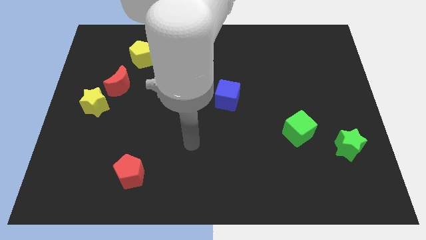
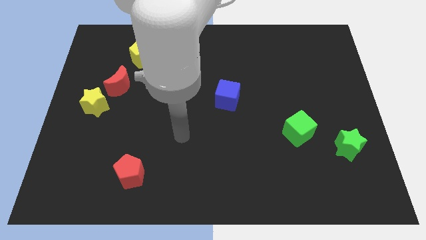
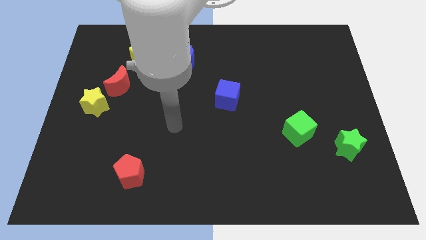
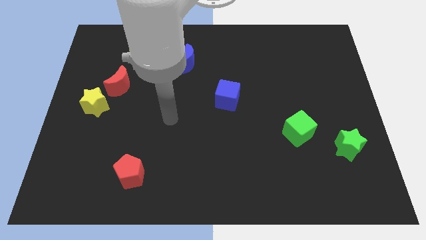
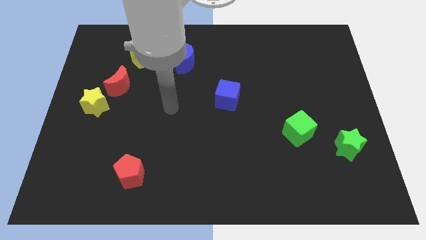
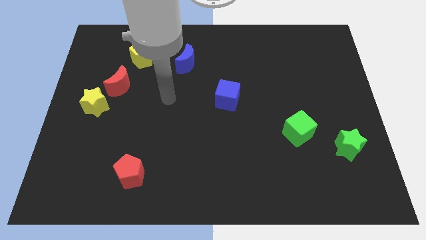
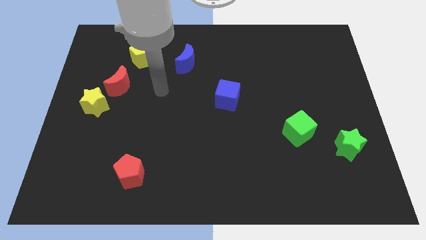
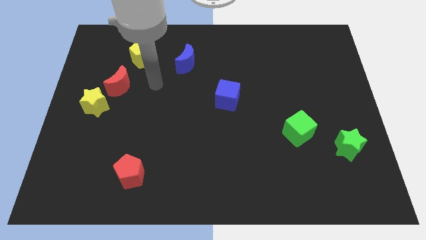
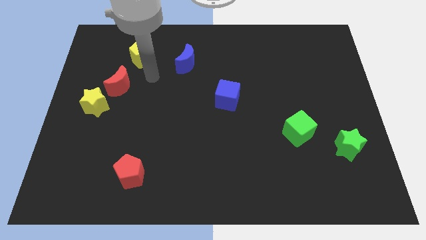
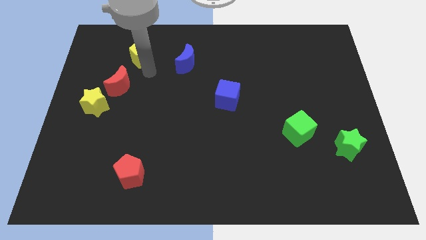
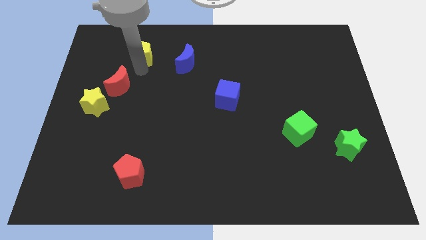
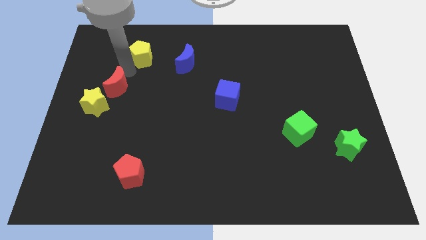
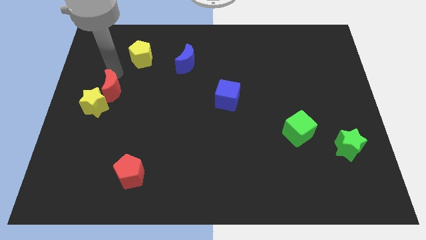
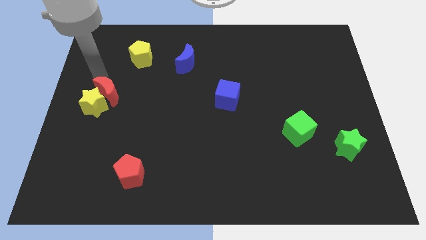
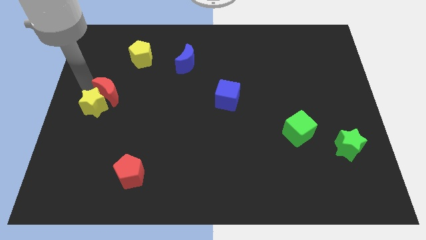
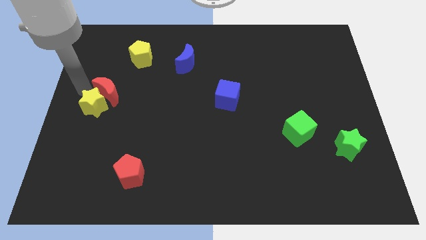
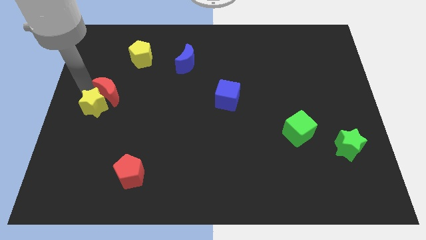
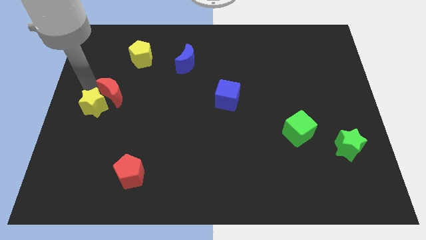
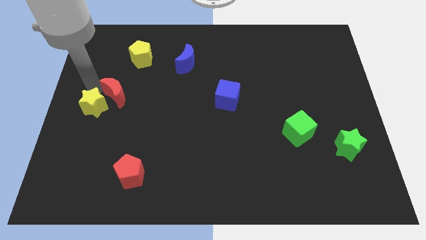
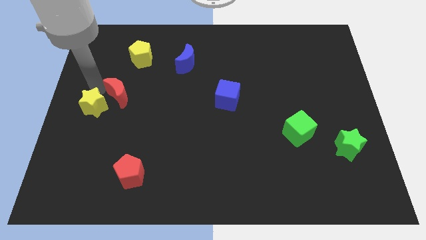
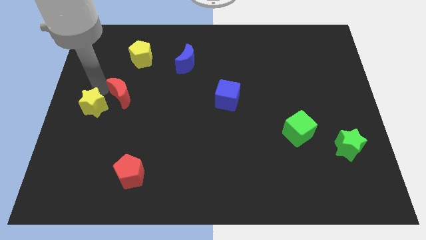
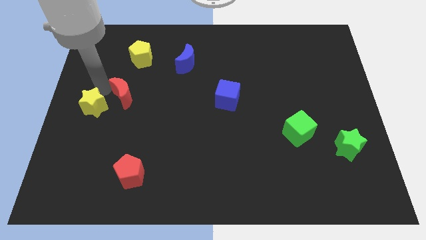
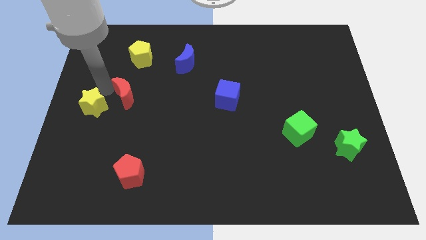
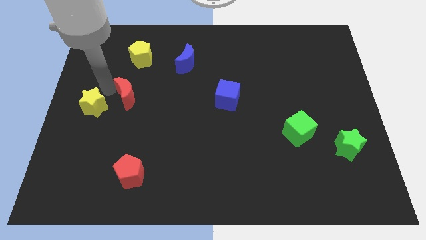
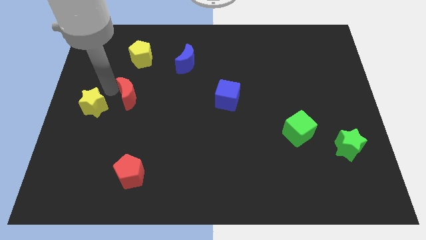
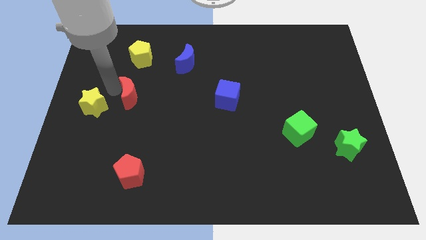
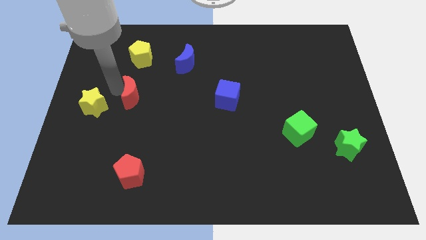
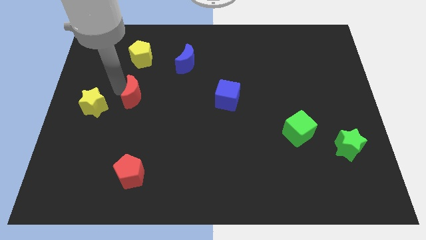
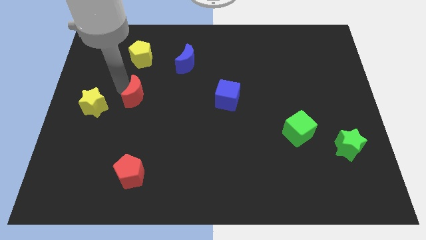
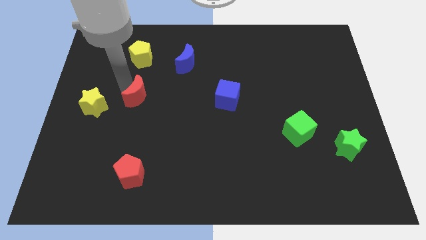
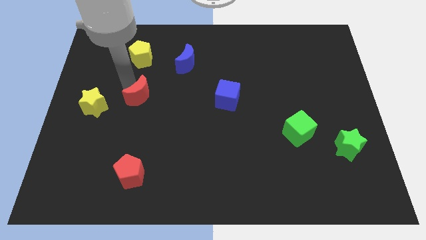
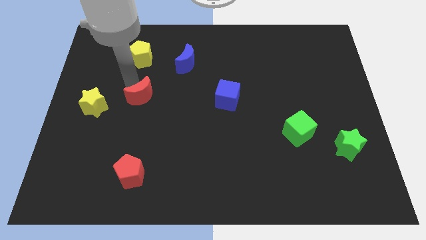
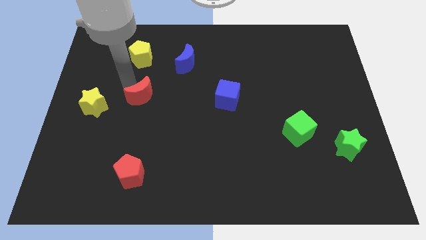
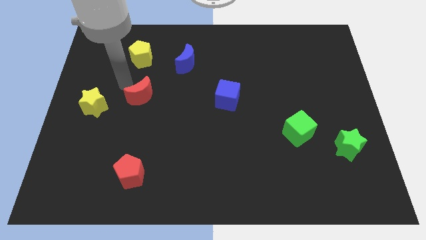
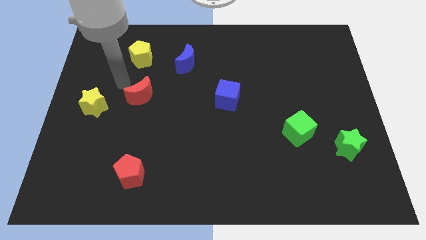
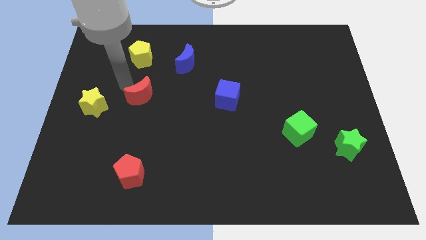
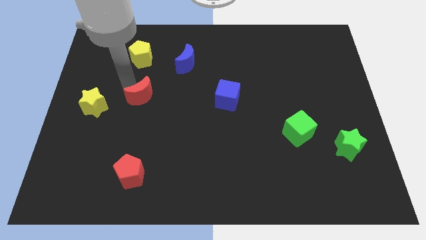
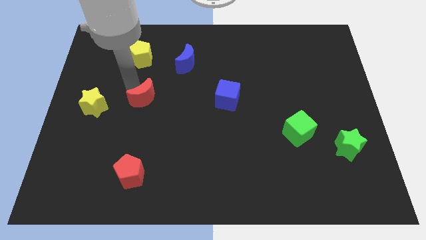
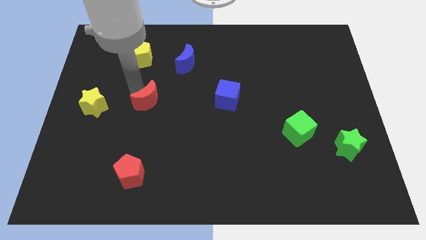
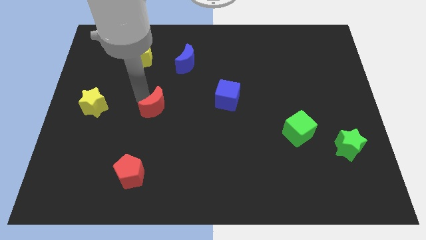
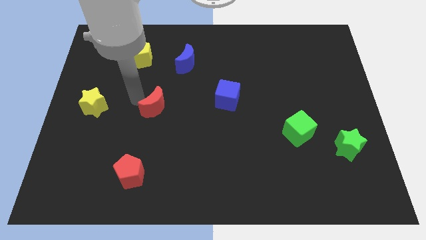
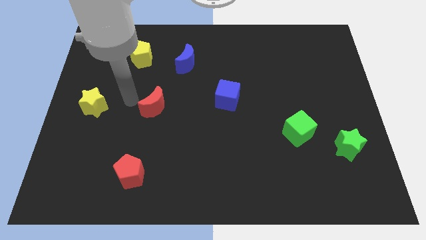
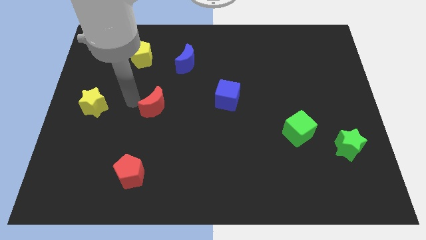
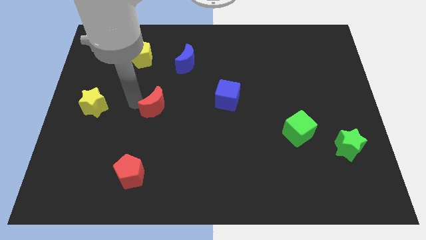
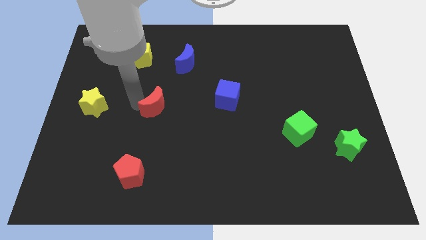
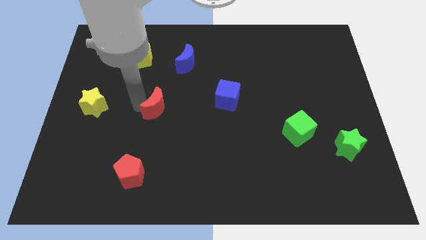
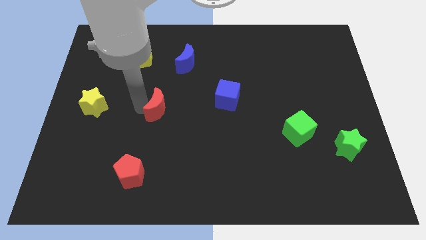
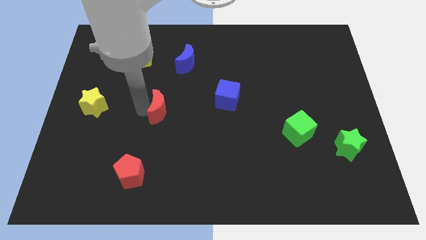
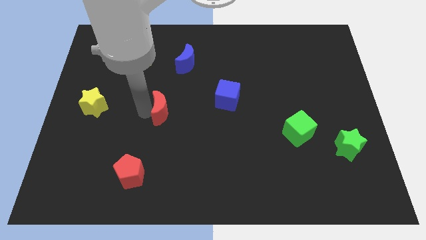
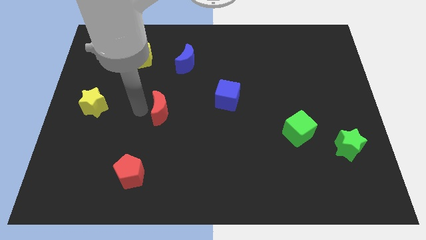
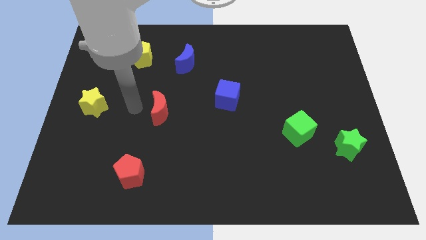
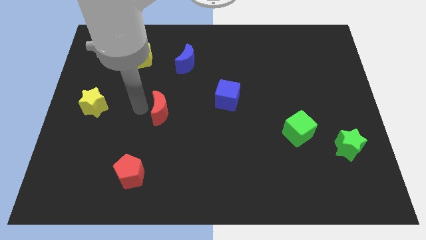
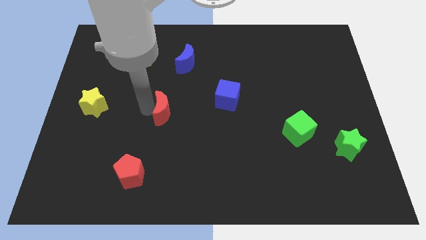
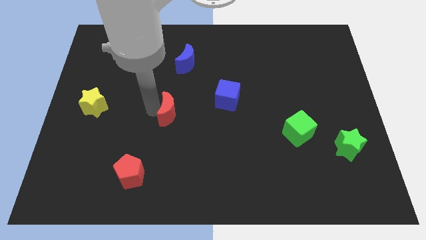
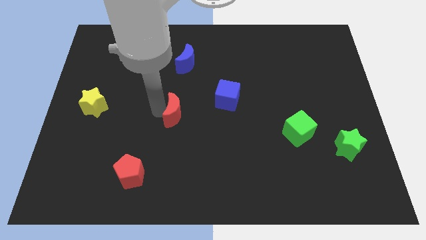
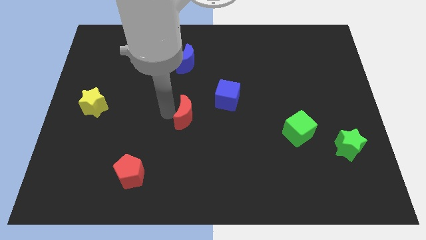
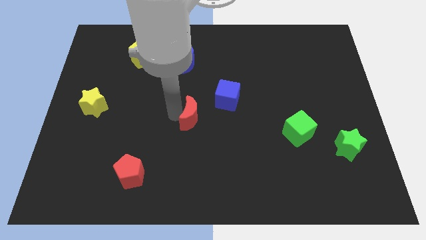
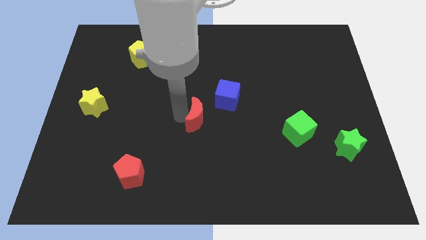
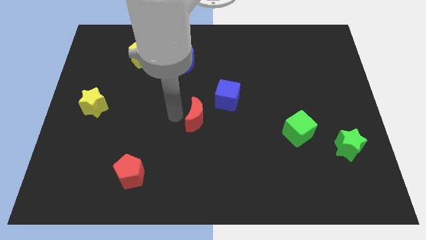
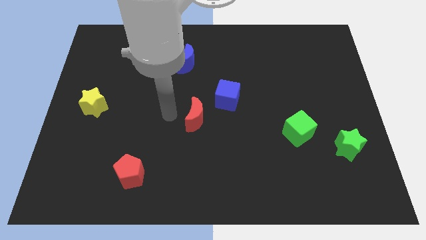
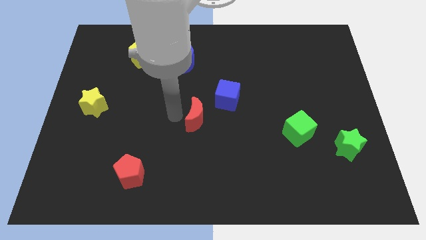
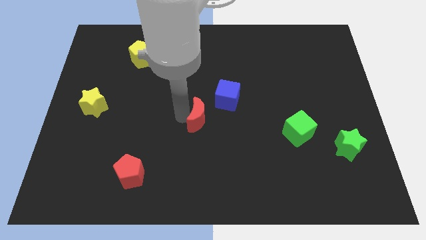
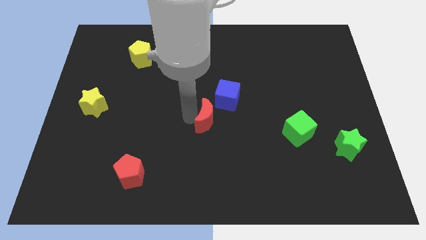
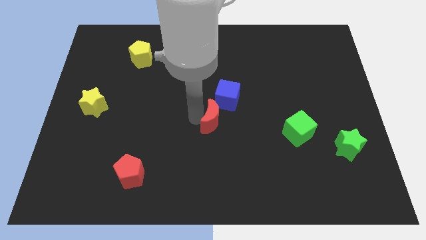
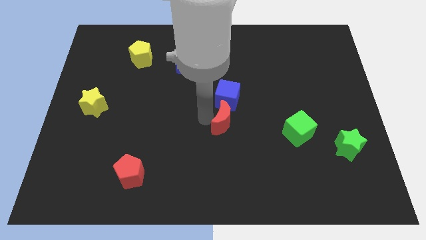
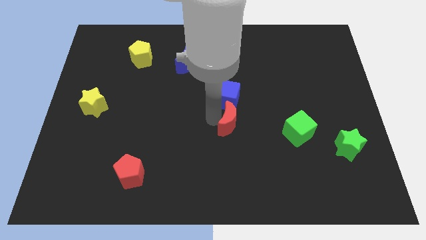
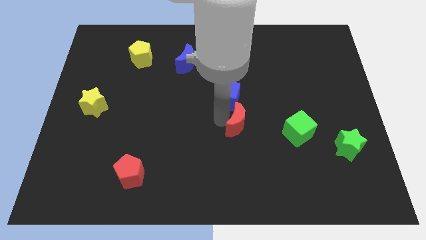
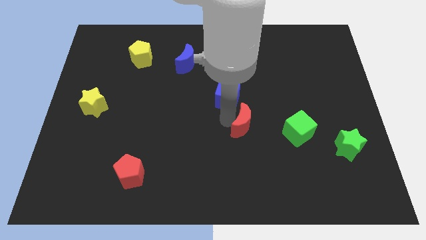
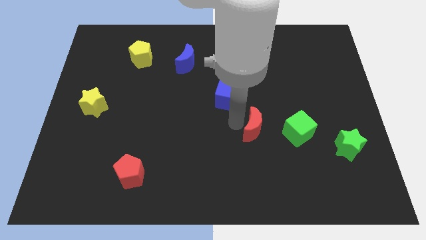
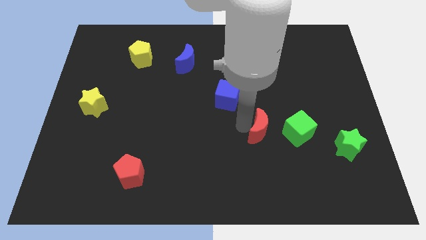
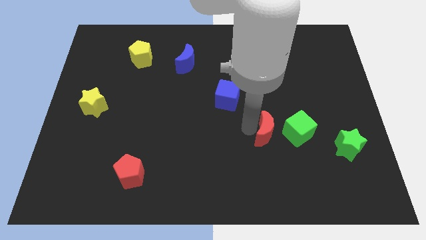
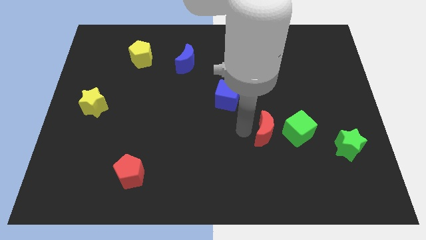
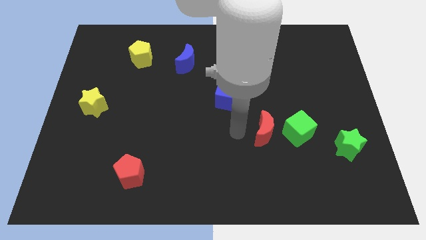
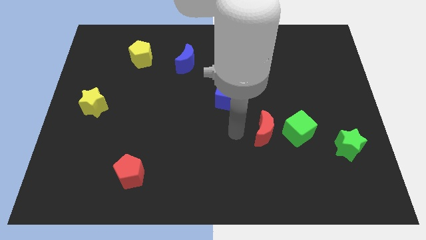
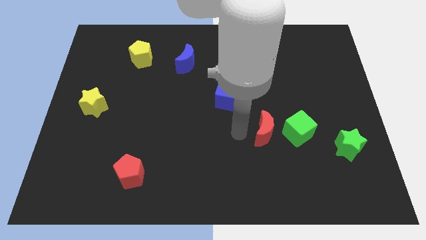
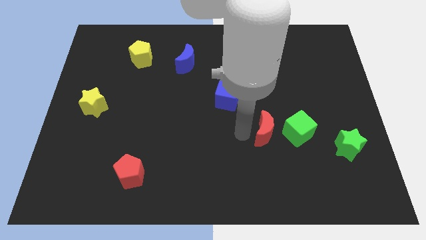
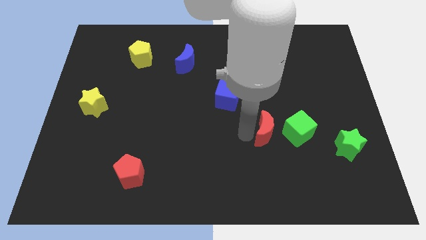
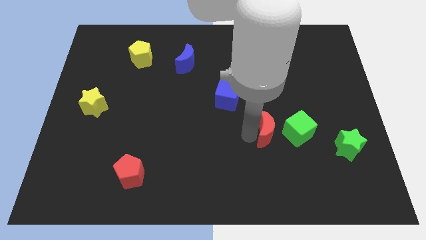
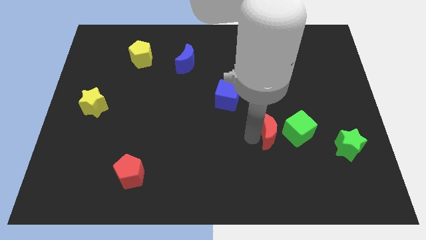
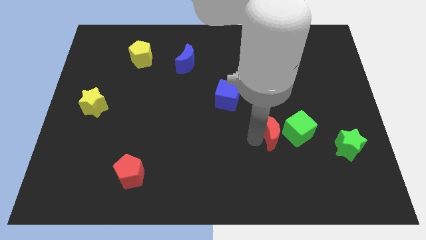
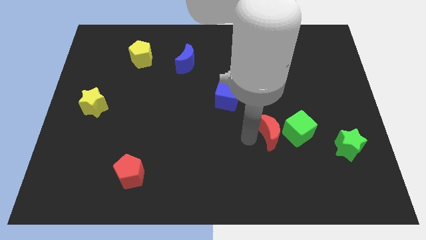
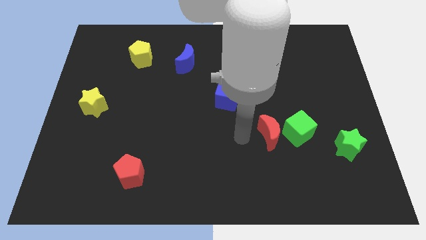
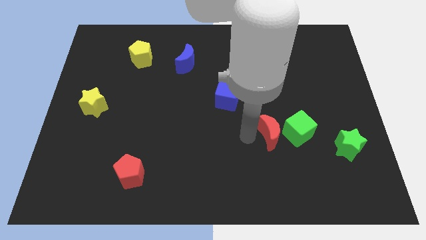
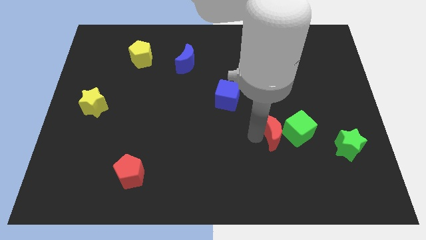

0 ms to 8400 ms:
slide the red moon close to the green cube
